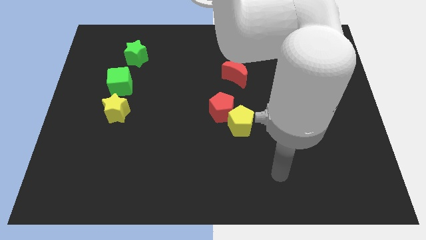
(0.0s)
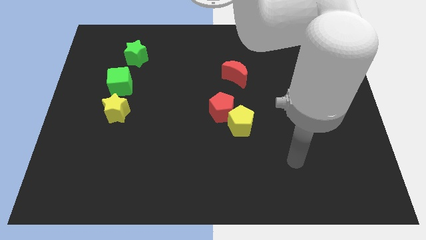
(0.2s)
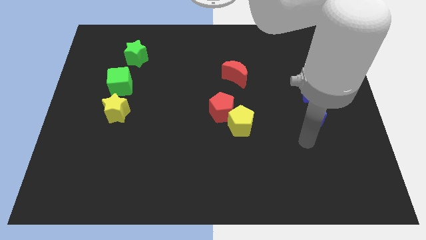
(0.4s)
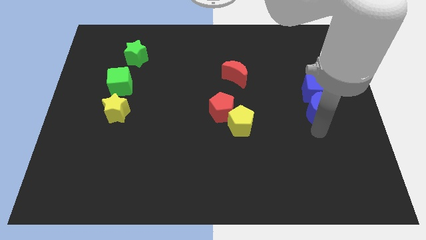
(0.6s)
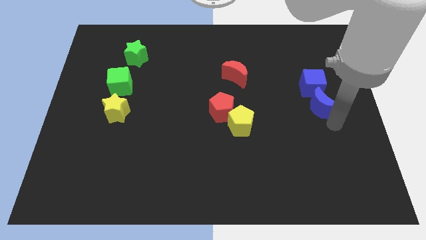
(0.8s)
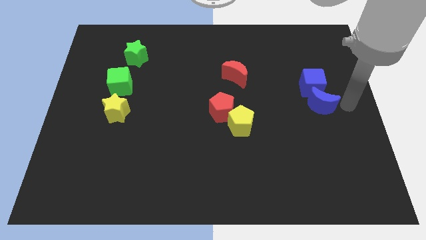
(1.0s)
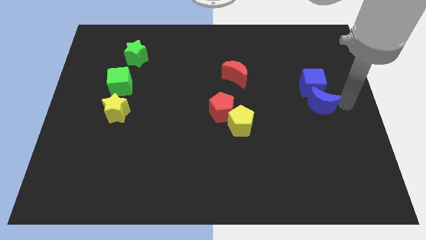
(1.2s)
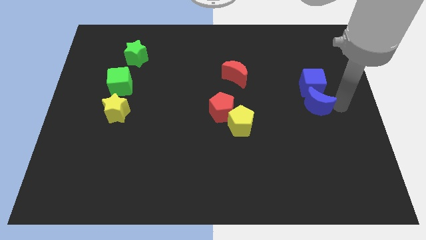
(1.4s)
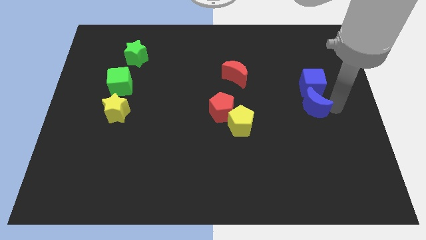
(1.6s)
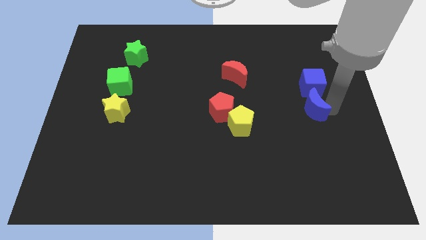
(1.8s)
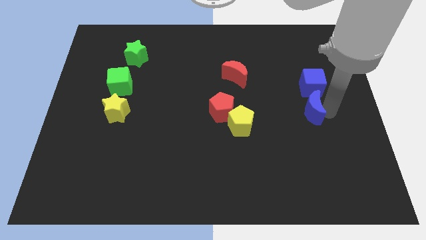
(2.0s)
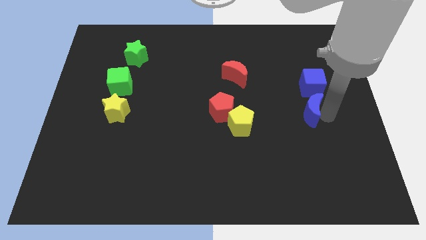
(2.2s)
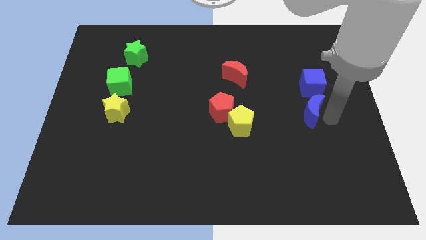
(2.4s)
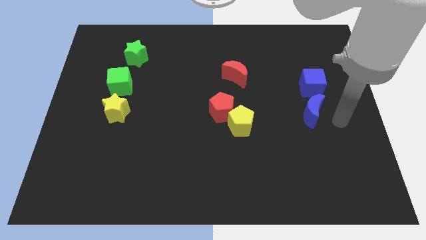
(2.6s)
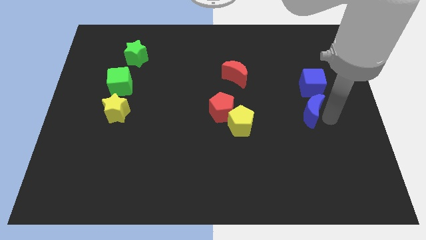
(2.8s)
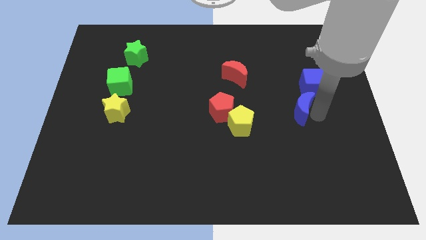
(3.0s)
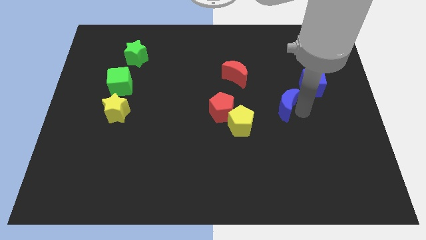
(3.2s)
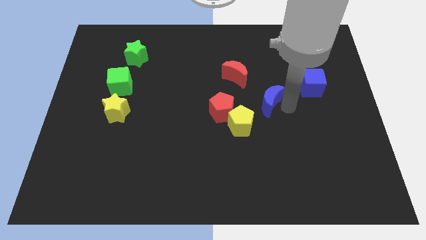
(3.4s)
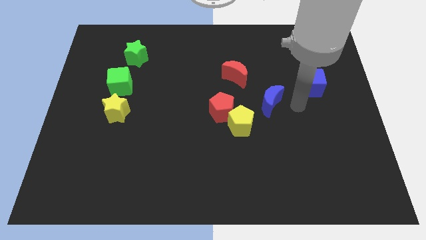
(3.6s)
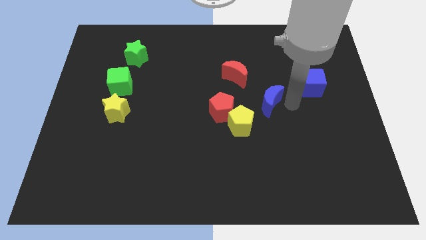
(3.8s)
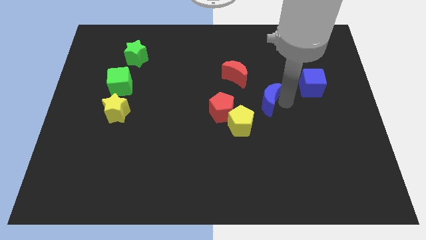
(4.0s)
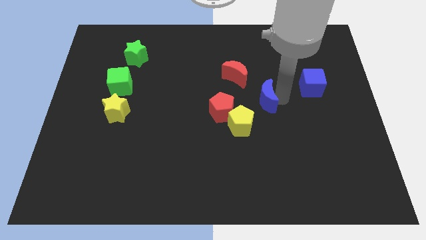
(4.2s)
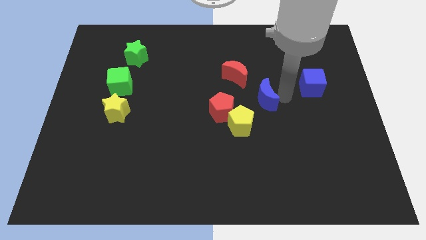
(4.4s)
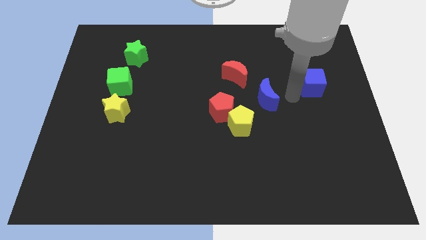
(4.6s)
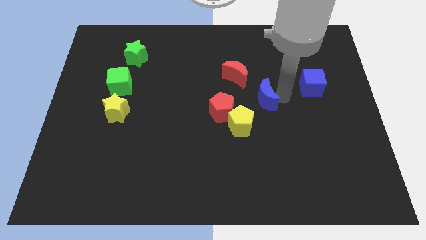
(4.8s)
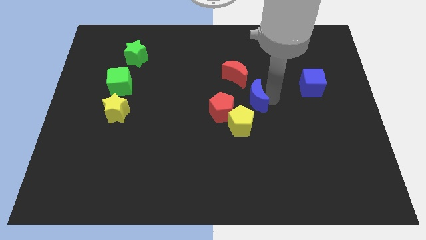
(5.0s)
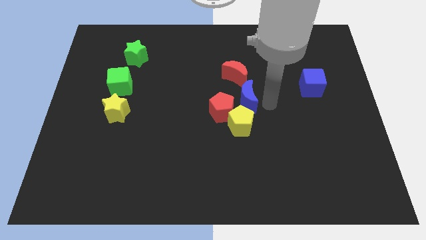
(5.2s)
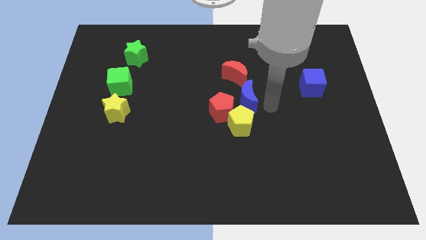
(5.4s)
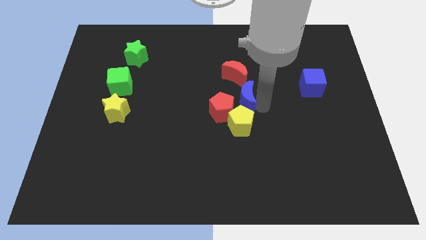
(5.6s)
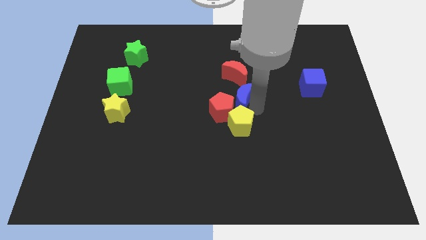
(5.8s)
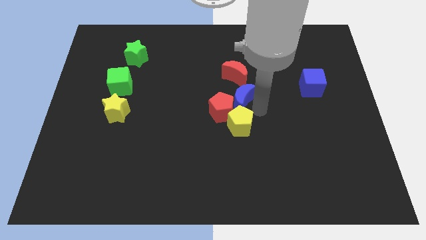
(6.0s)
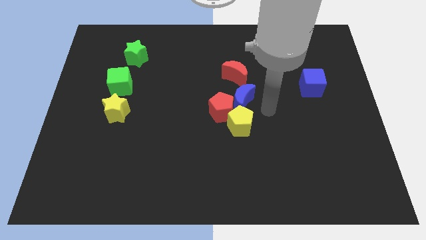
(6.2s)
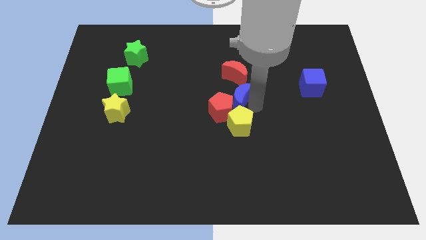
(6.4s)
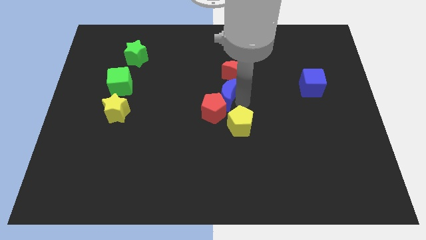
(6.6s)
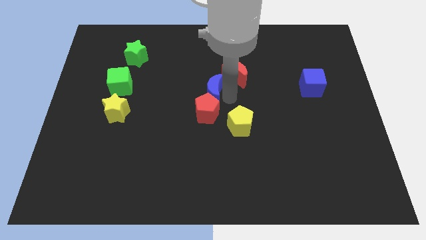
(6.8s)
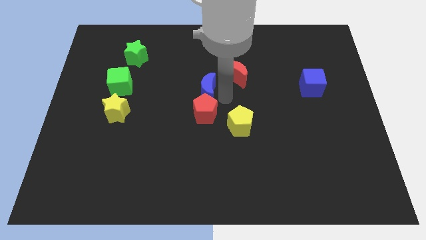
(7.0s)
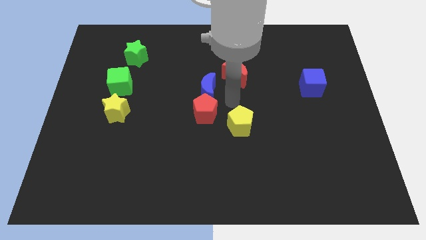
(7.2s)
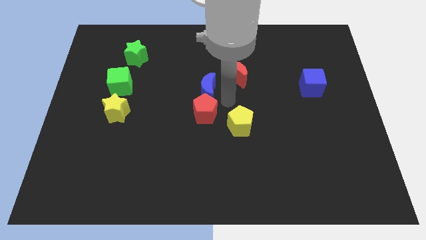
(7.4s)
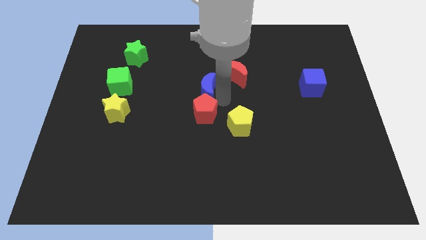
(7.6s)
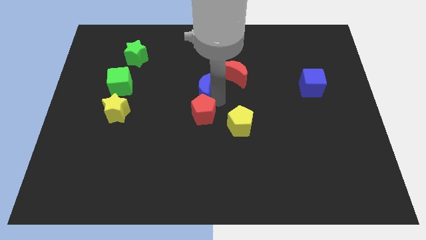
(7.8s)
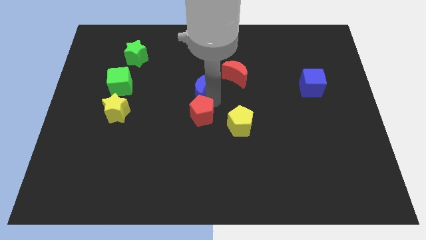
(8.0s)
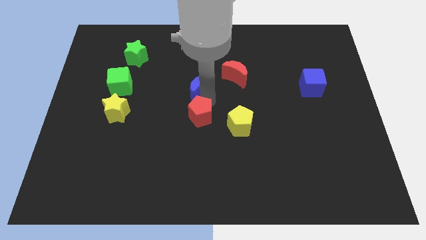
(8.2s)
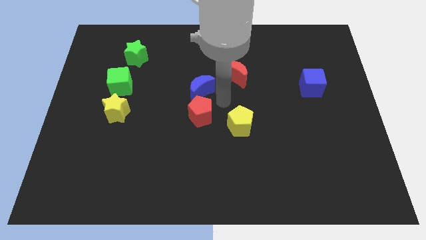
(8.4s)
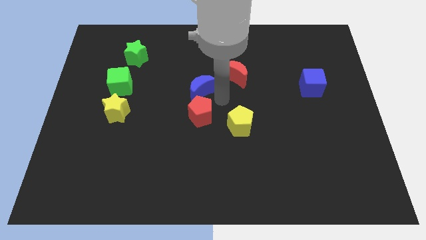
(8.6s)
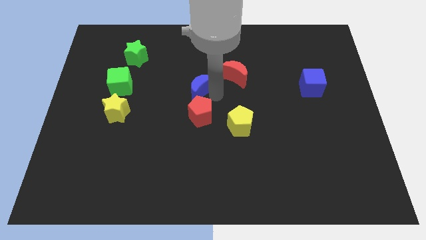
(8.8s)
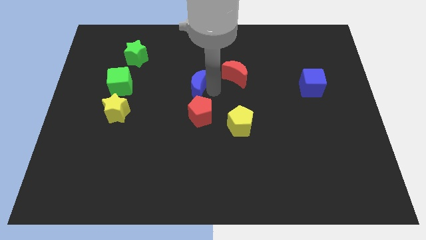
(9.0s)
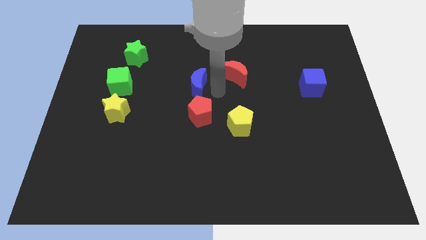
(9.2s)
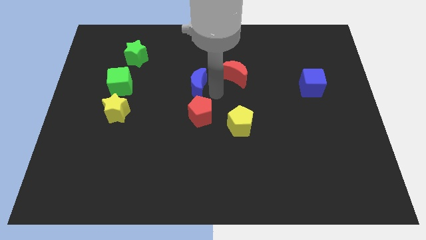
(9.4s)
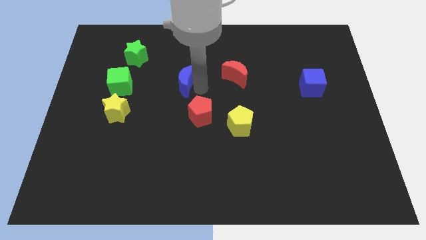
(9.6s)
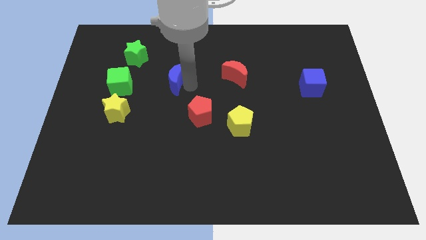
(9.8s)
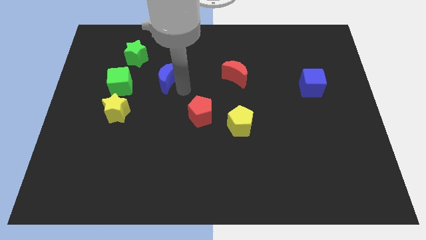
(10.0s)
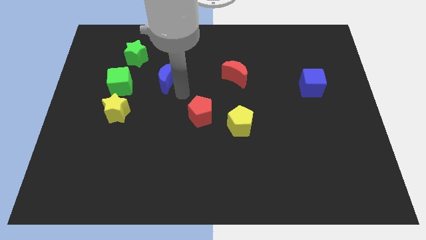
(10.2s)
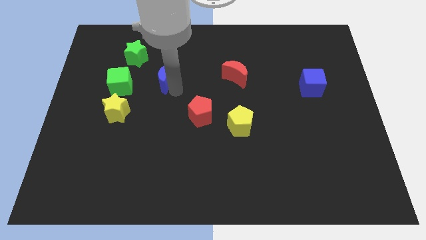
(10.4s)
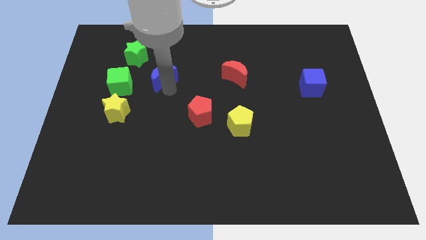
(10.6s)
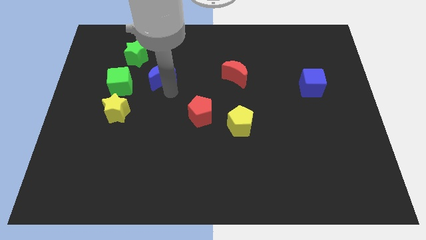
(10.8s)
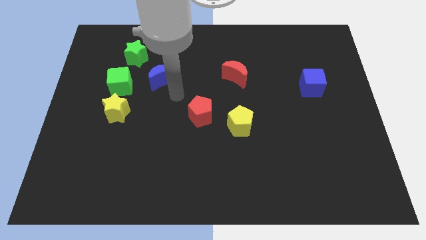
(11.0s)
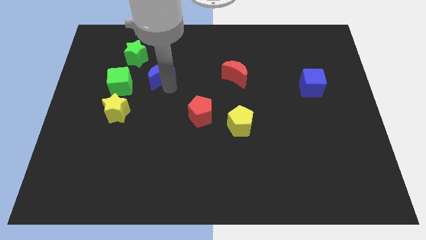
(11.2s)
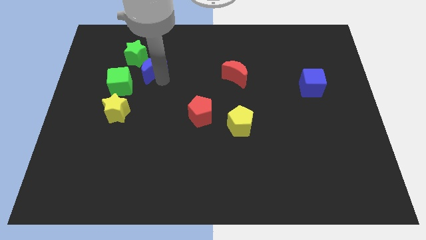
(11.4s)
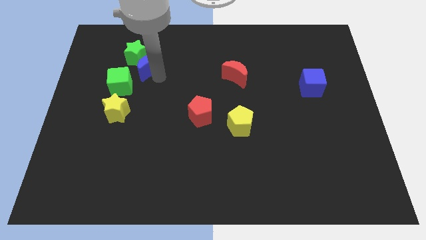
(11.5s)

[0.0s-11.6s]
slide the blue moon close to the green star

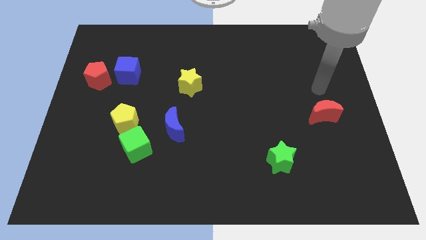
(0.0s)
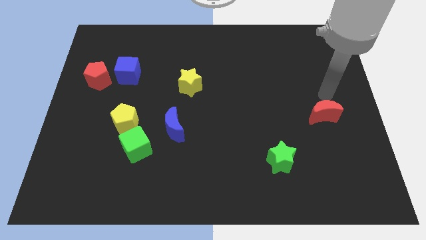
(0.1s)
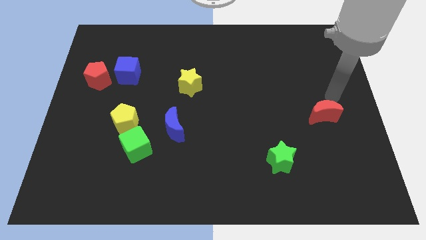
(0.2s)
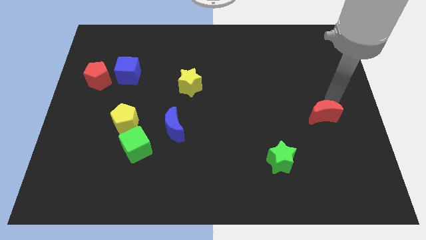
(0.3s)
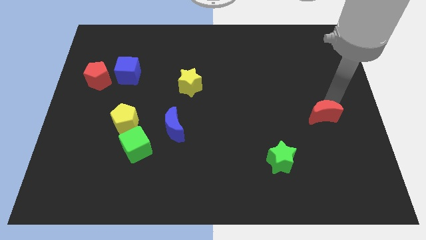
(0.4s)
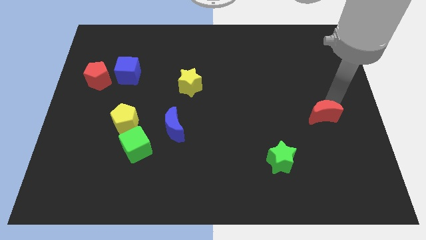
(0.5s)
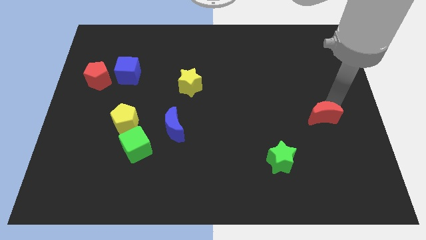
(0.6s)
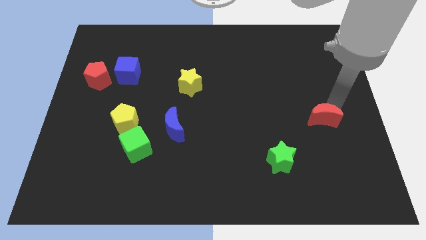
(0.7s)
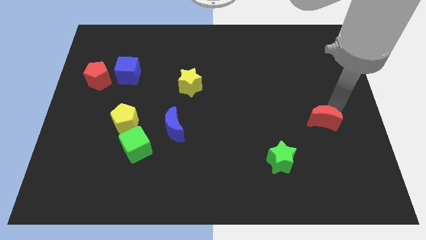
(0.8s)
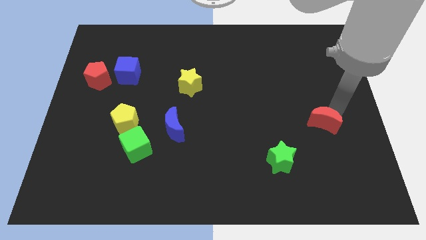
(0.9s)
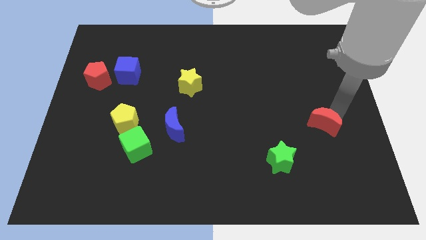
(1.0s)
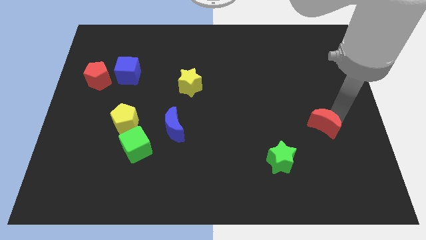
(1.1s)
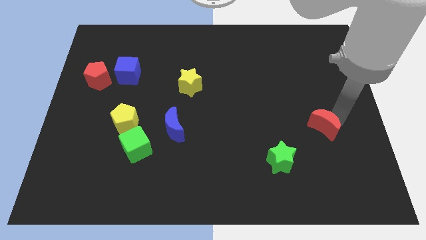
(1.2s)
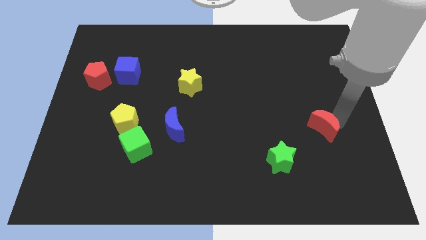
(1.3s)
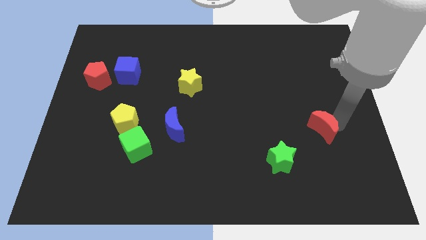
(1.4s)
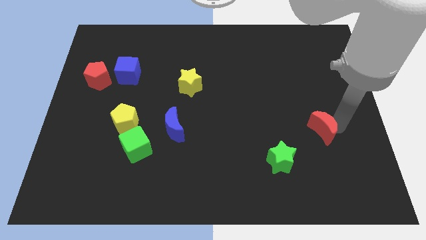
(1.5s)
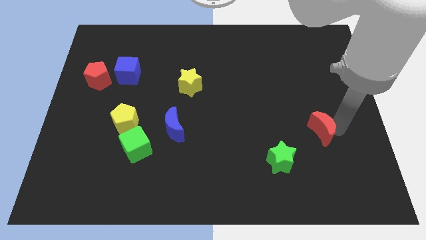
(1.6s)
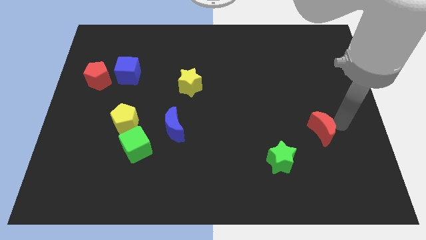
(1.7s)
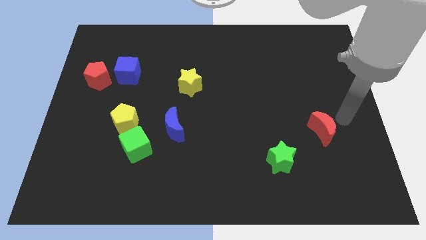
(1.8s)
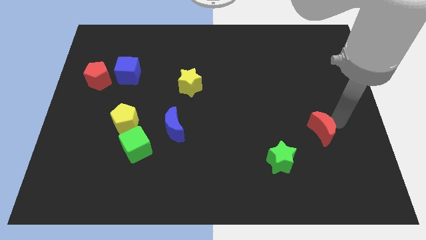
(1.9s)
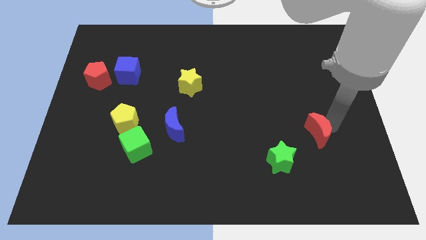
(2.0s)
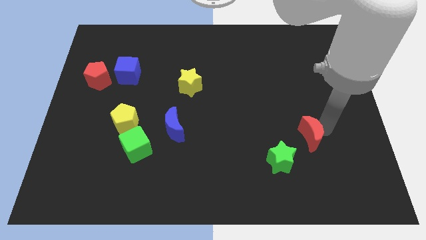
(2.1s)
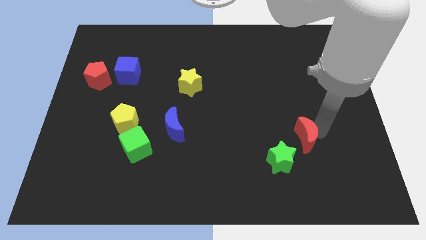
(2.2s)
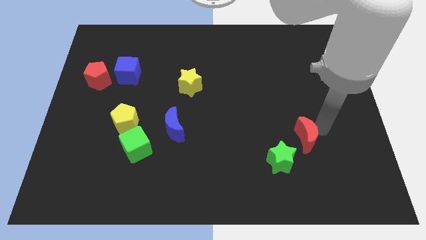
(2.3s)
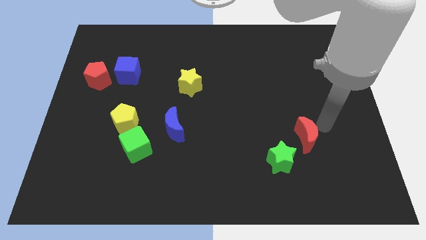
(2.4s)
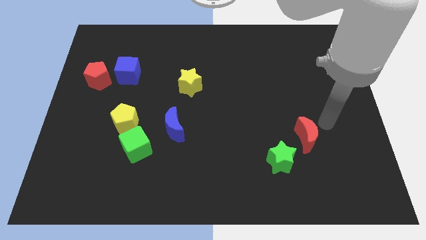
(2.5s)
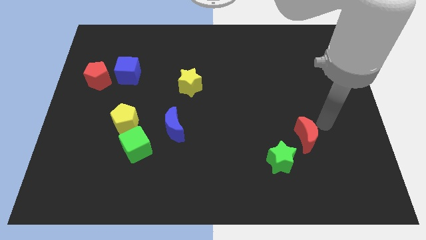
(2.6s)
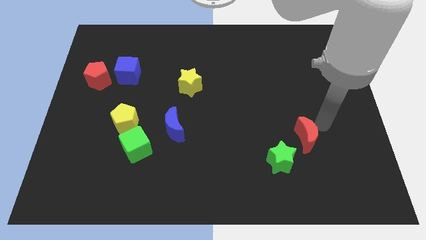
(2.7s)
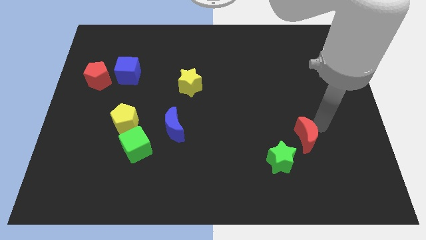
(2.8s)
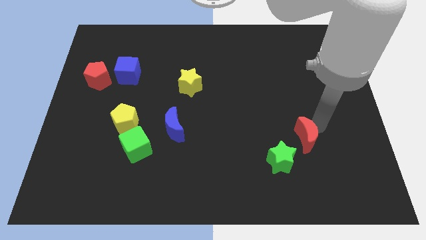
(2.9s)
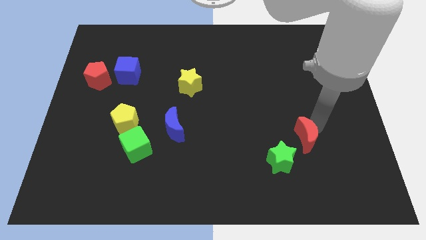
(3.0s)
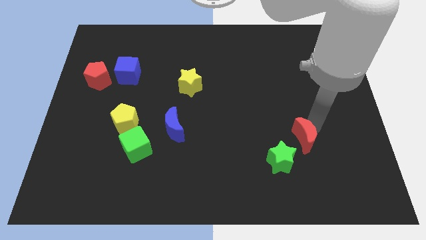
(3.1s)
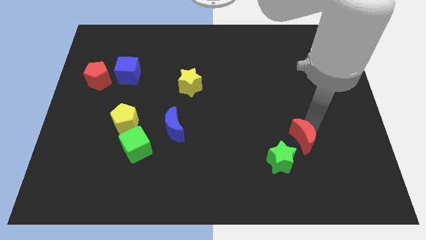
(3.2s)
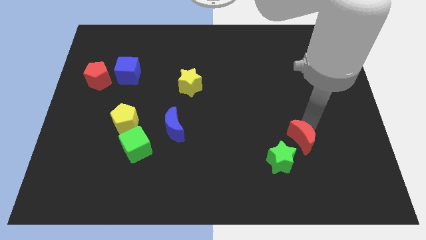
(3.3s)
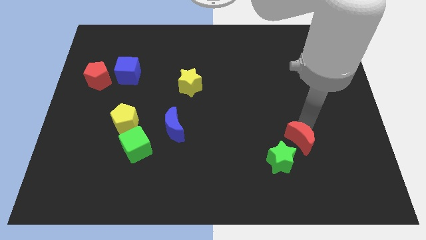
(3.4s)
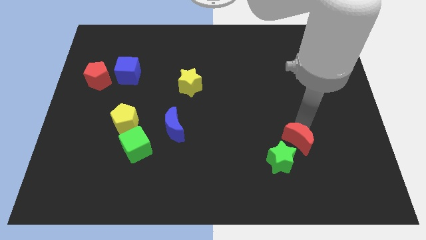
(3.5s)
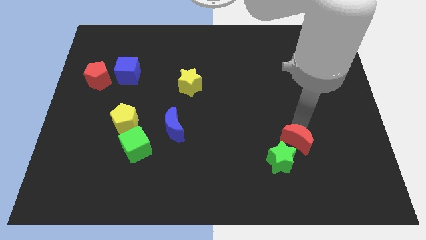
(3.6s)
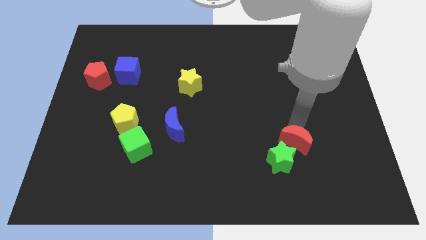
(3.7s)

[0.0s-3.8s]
slide the red moon close to the green star
